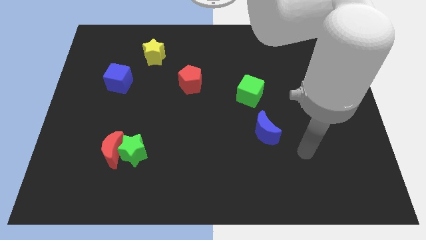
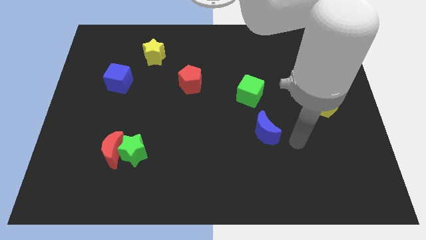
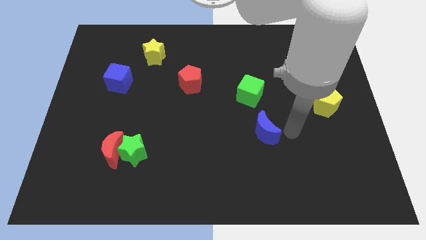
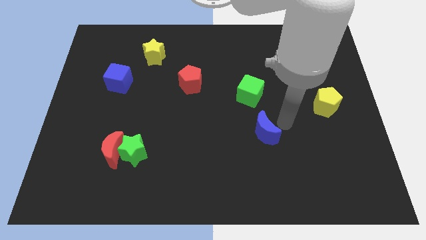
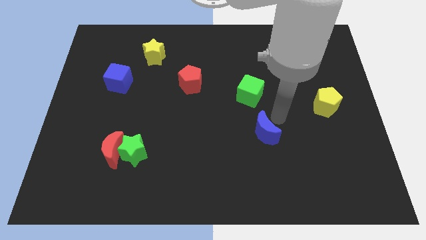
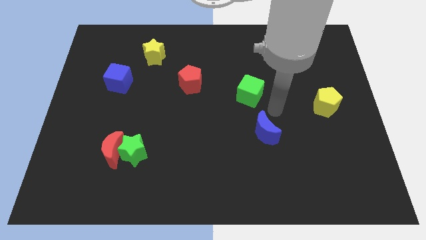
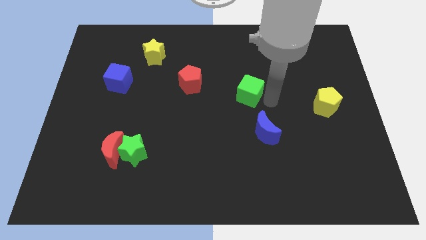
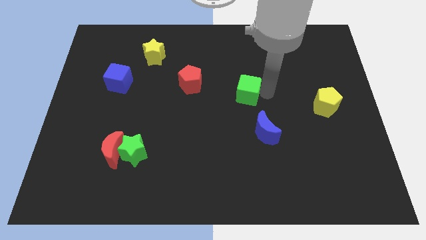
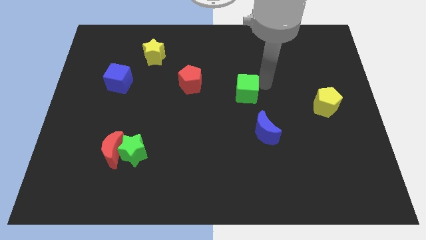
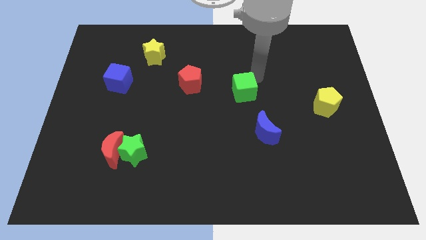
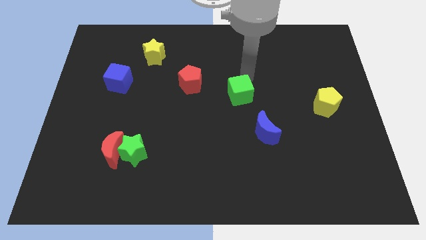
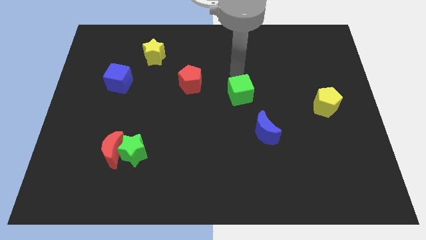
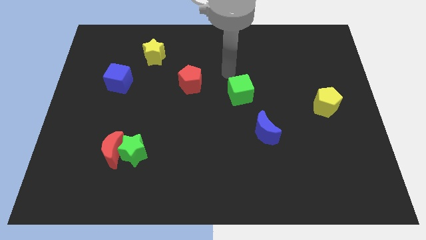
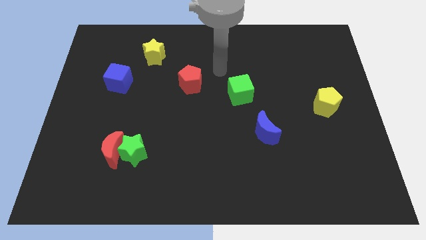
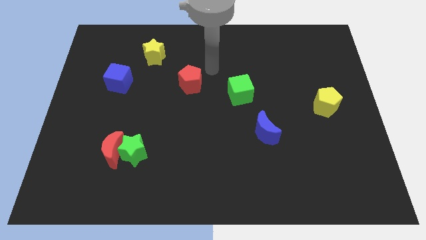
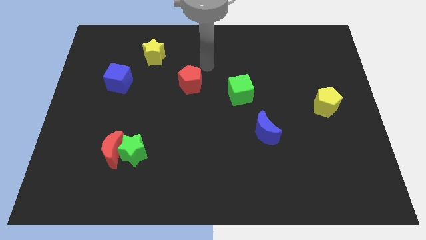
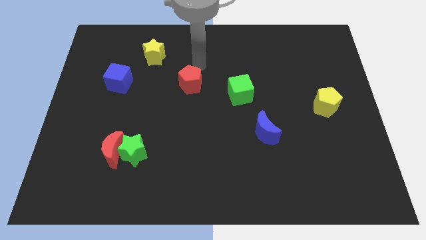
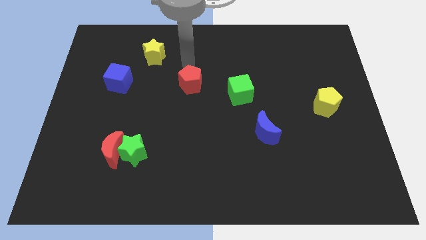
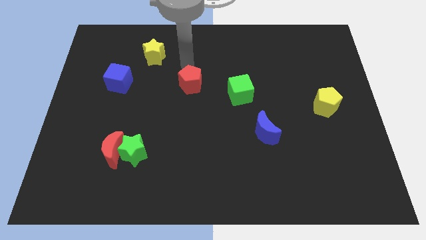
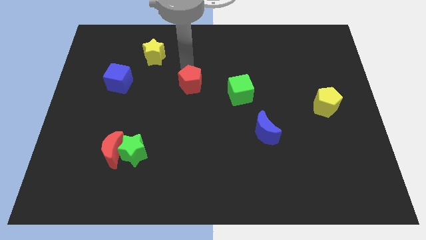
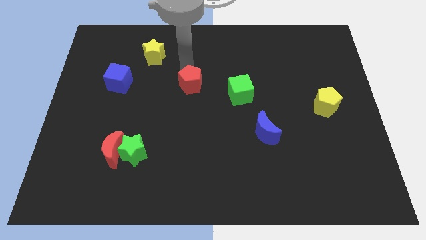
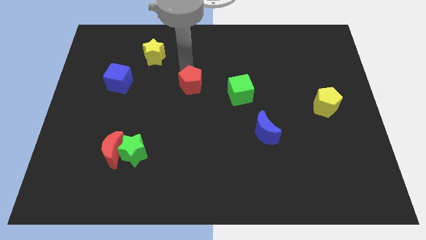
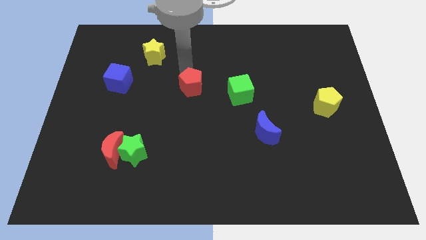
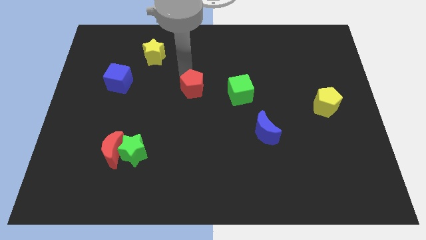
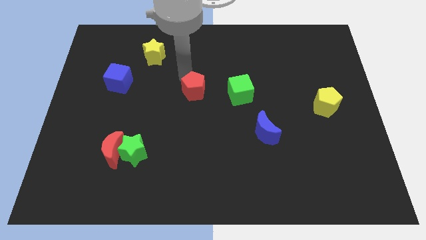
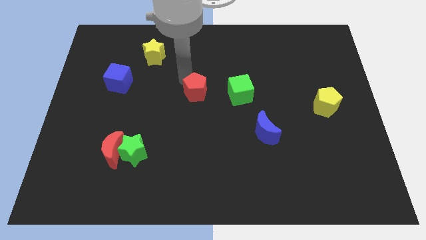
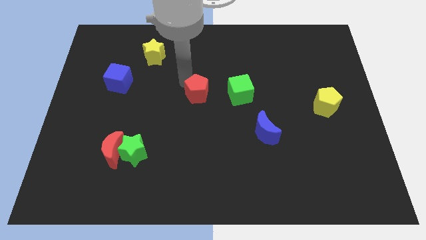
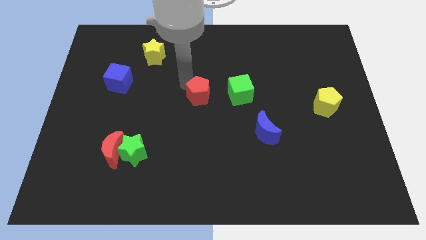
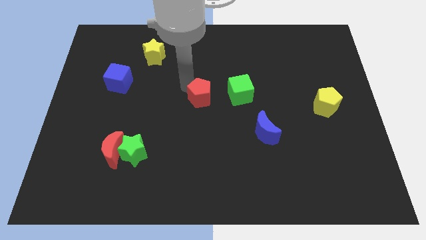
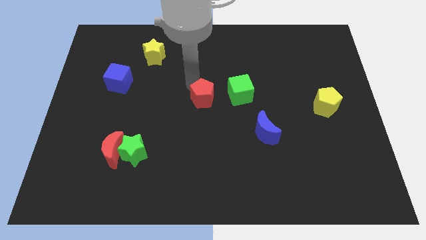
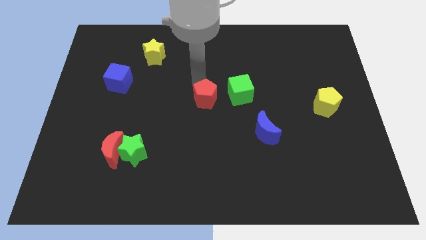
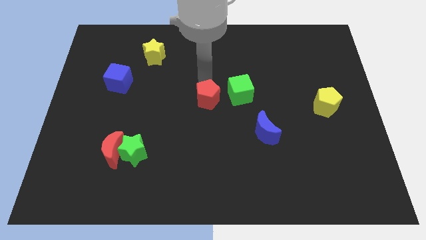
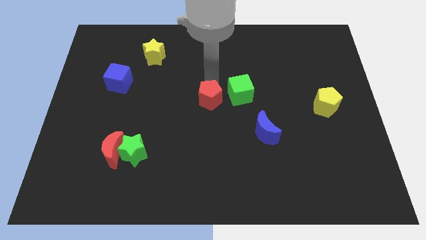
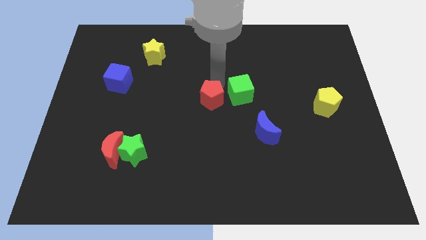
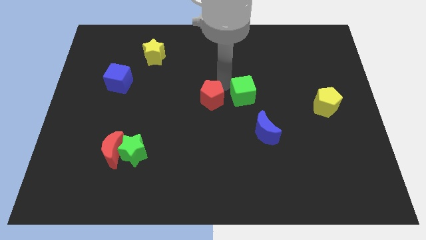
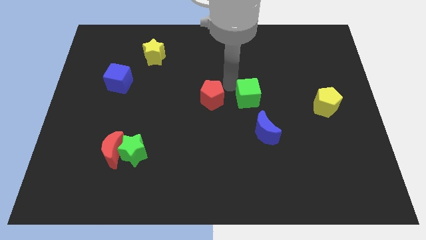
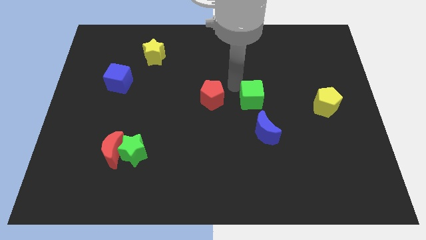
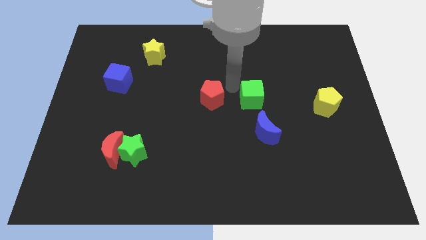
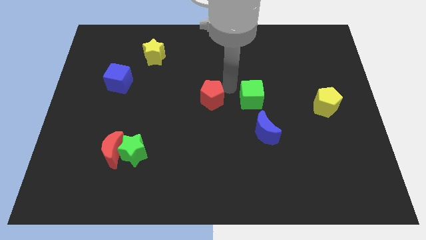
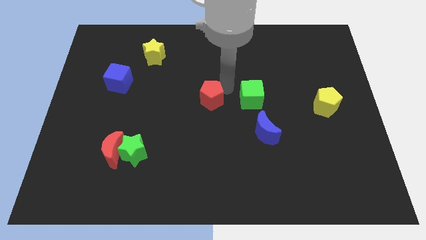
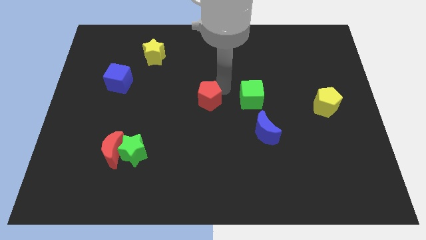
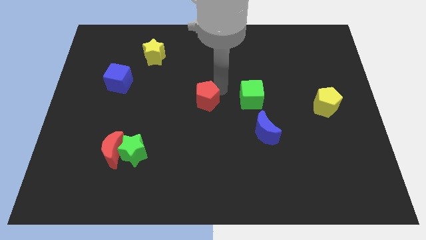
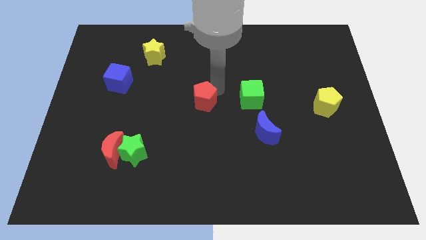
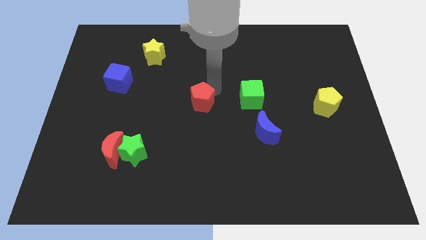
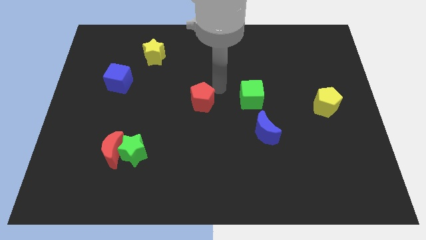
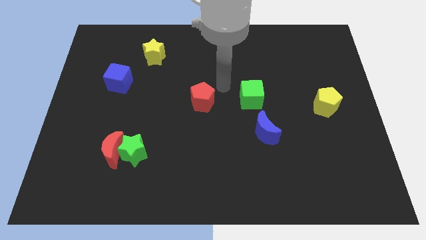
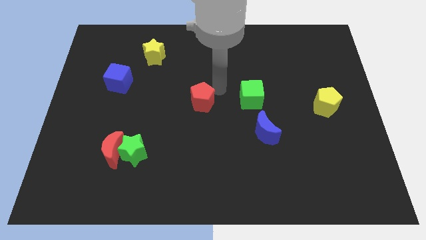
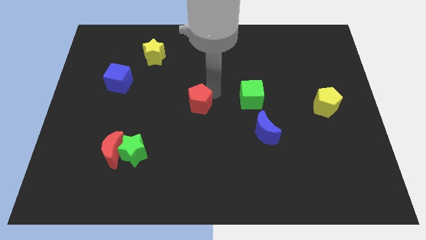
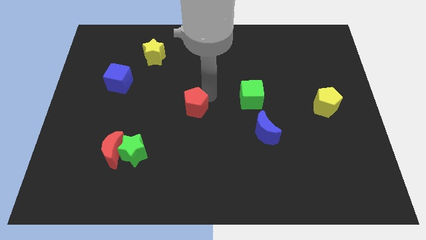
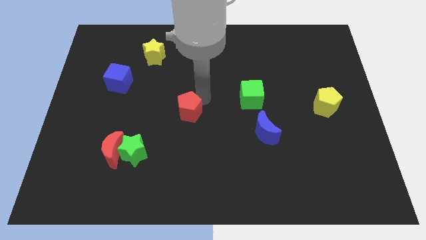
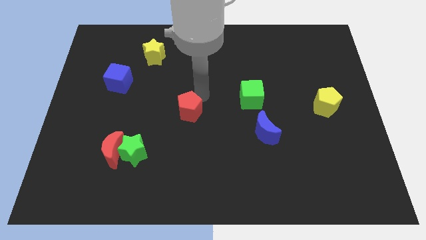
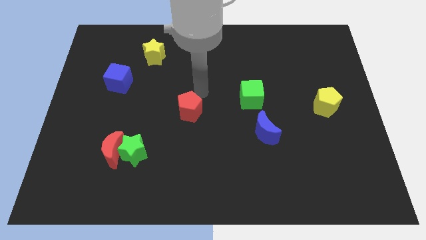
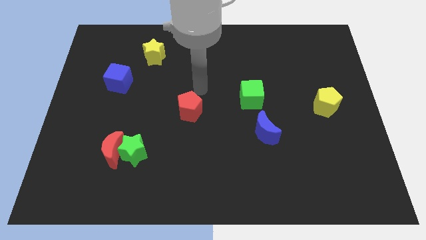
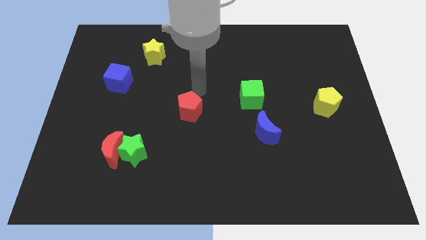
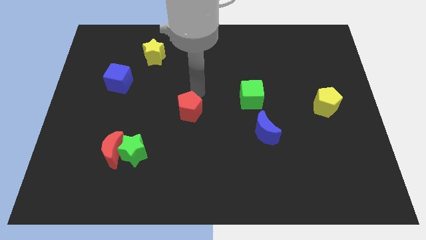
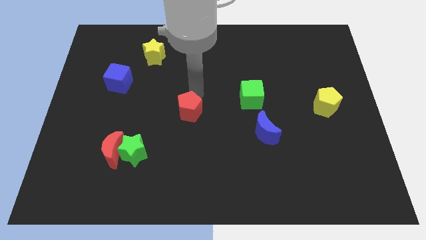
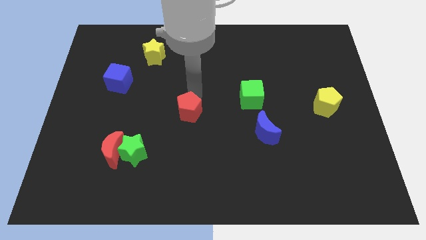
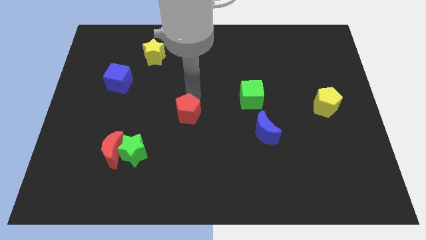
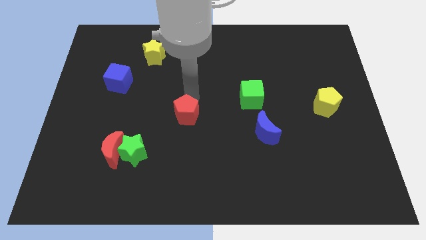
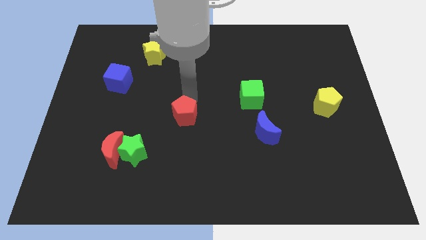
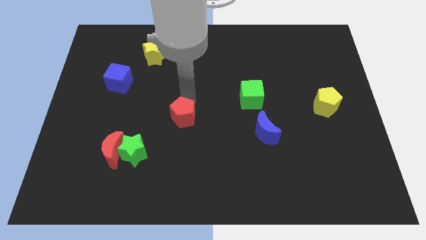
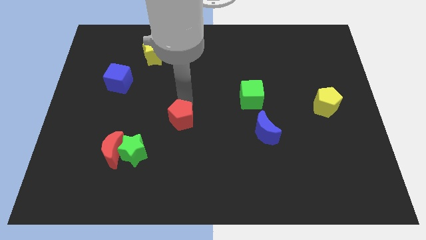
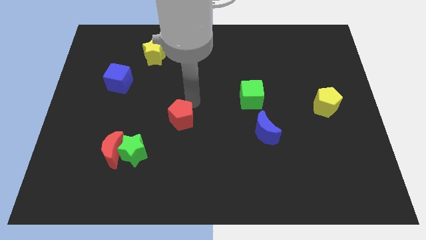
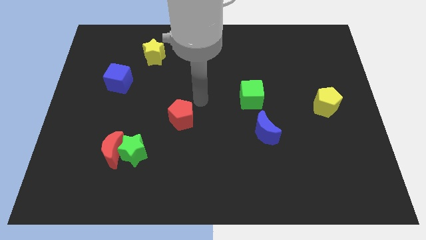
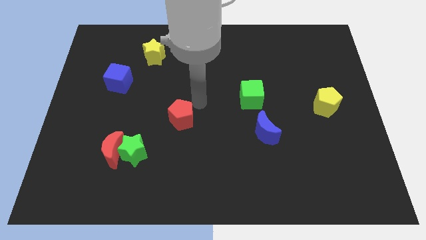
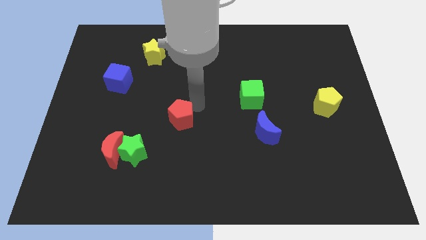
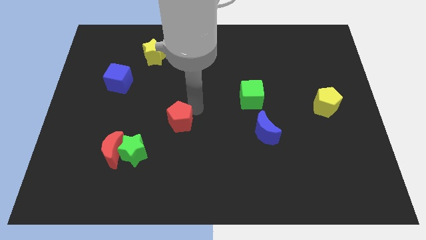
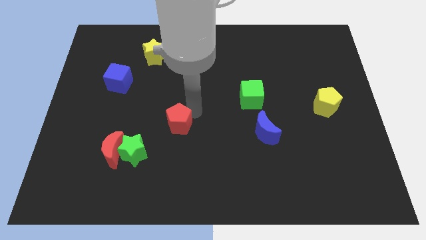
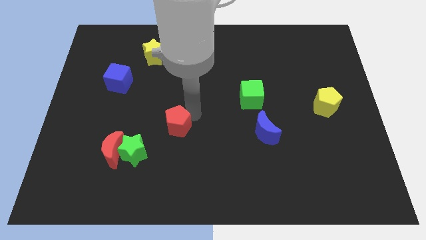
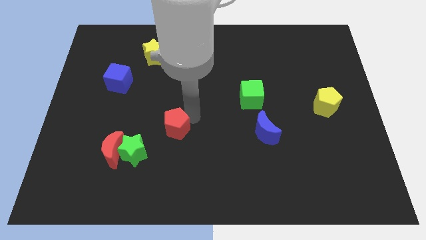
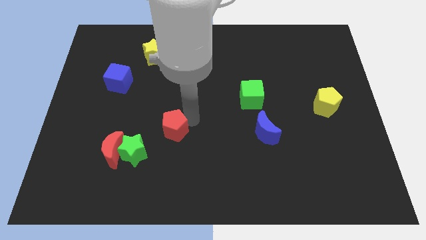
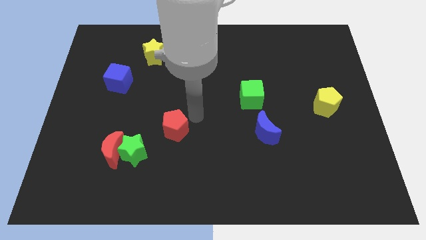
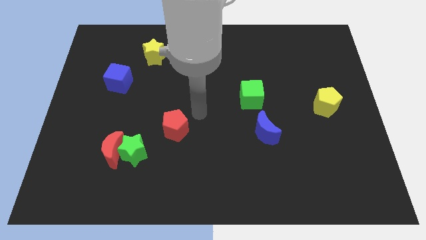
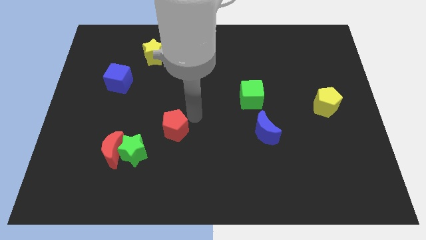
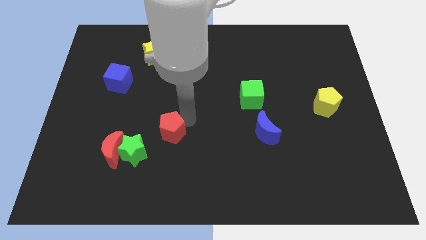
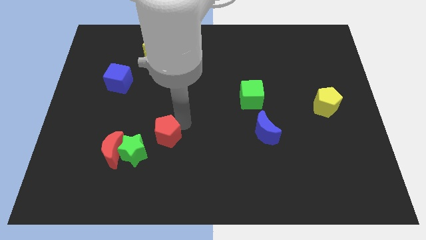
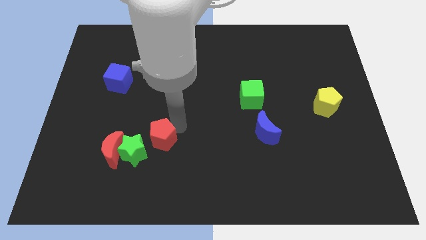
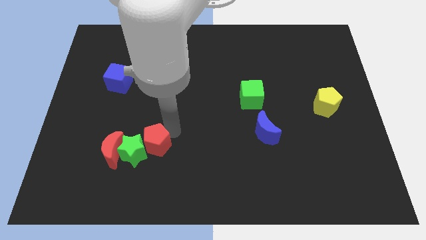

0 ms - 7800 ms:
push the red pentagon next to the green star
